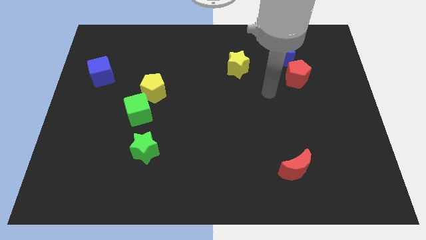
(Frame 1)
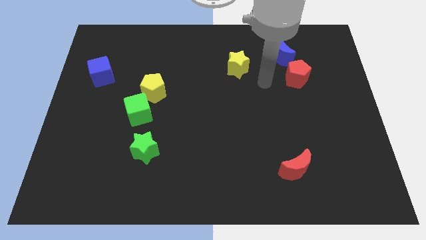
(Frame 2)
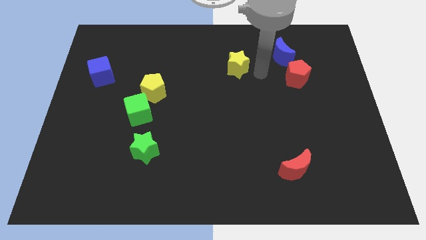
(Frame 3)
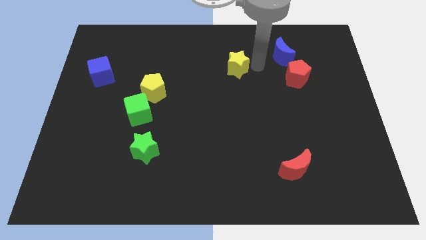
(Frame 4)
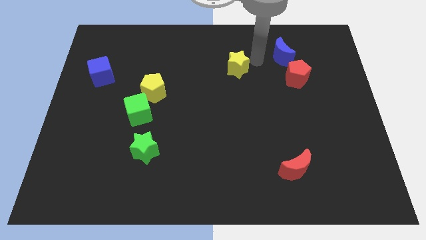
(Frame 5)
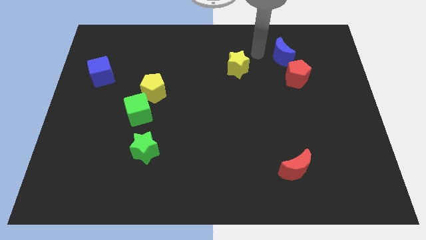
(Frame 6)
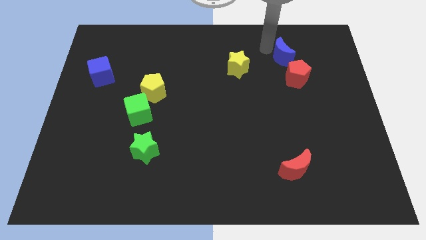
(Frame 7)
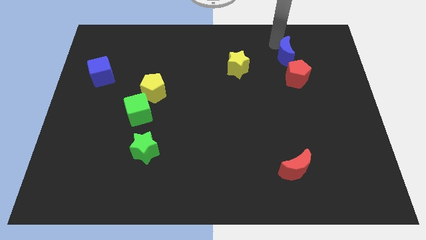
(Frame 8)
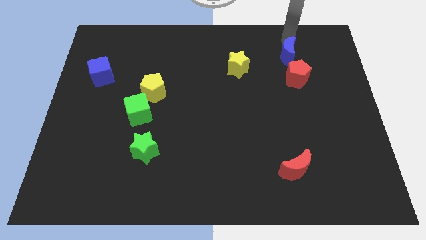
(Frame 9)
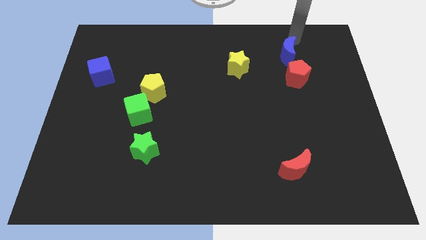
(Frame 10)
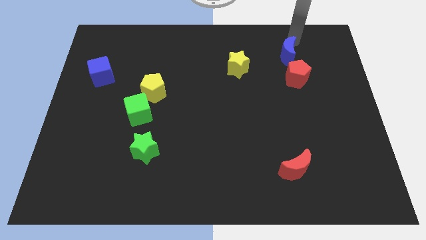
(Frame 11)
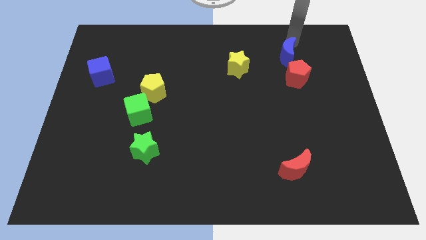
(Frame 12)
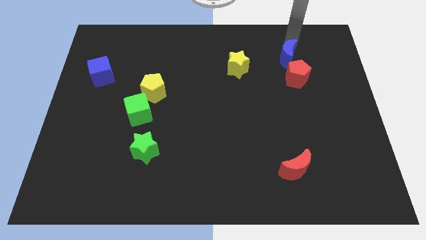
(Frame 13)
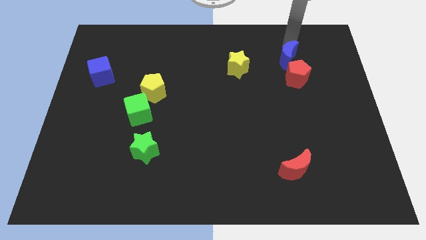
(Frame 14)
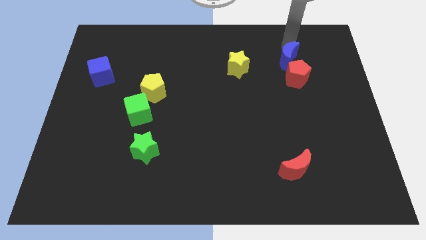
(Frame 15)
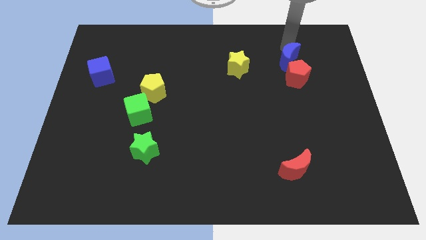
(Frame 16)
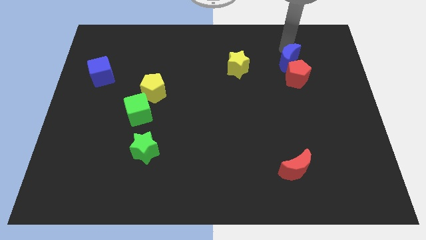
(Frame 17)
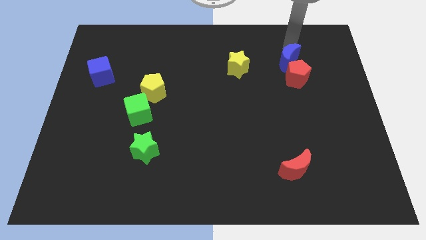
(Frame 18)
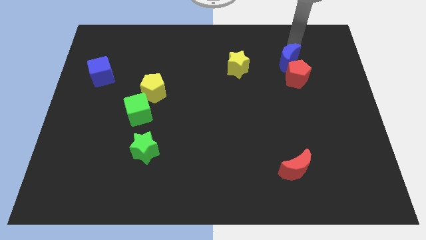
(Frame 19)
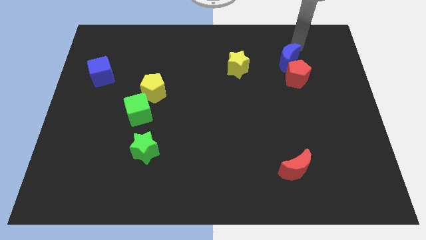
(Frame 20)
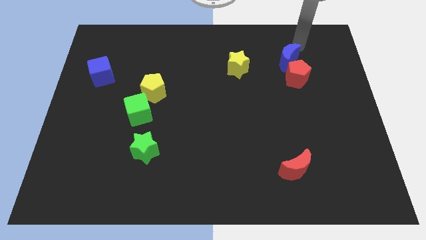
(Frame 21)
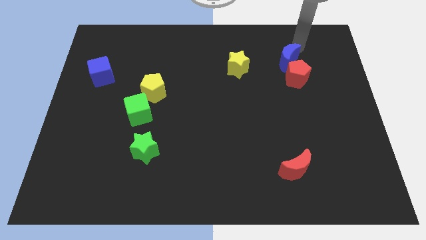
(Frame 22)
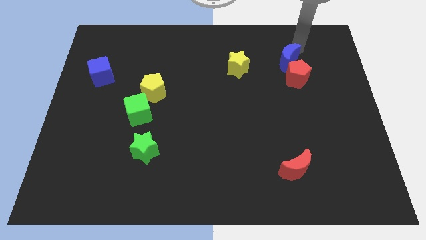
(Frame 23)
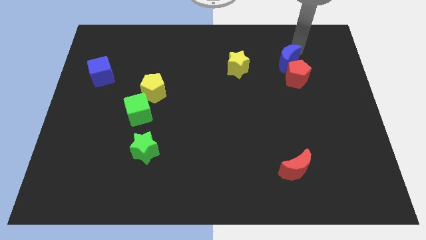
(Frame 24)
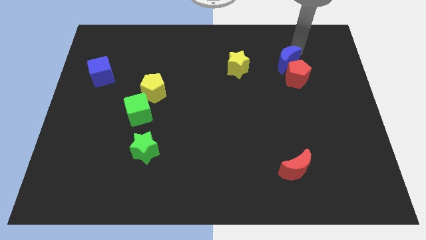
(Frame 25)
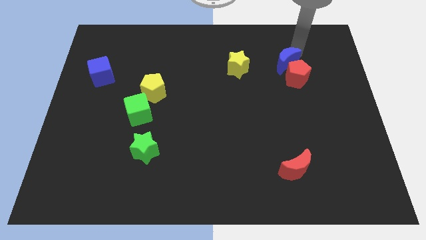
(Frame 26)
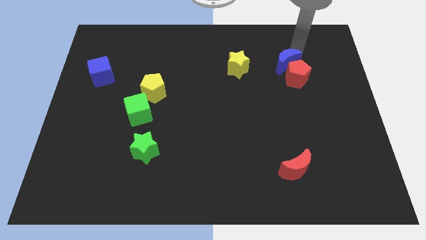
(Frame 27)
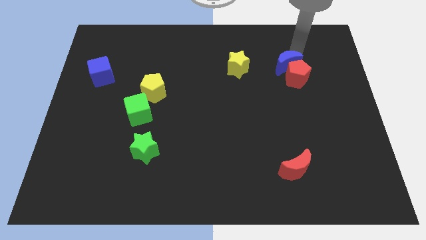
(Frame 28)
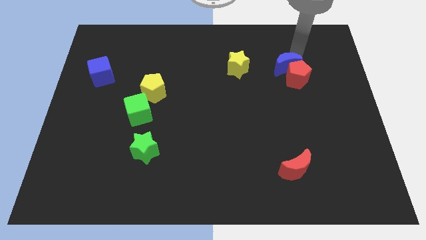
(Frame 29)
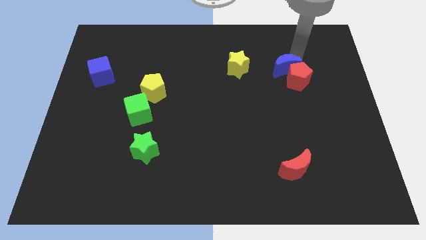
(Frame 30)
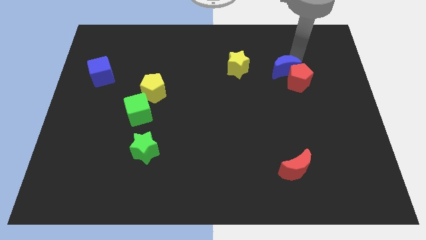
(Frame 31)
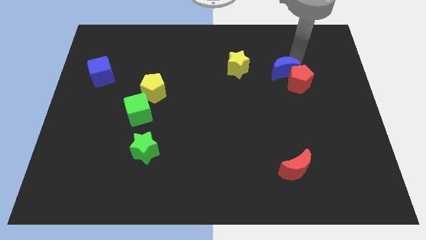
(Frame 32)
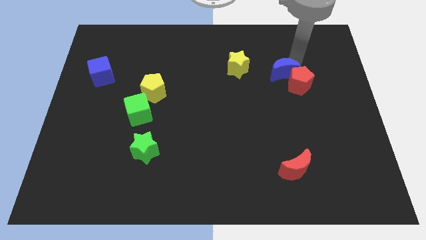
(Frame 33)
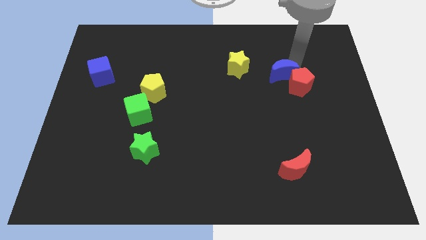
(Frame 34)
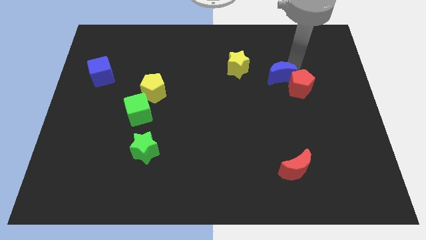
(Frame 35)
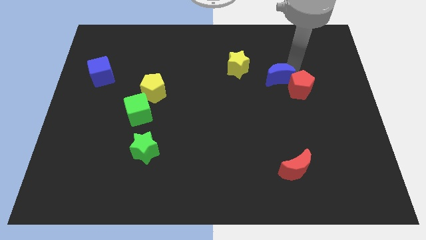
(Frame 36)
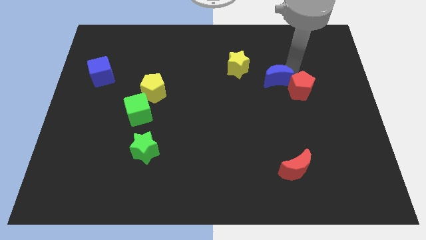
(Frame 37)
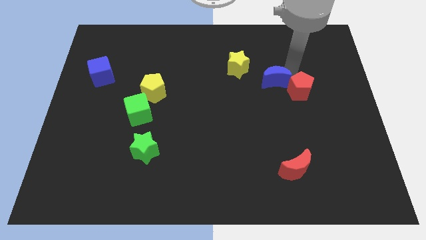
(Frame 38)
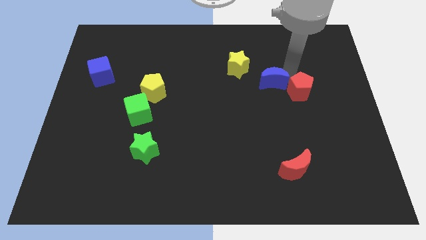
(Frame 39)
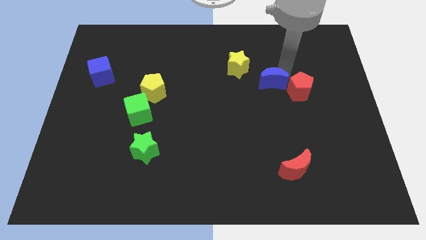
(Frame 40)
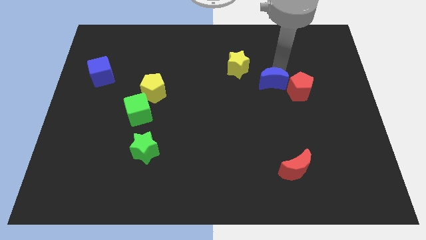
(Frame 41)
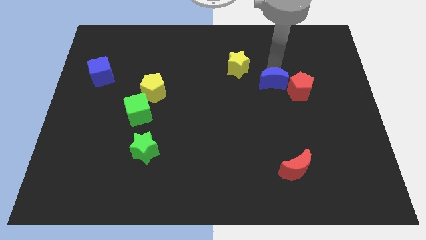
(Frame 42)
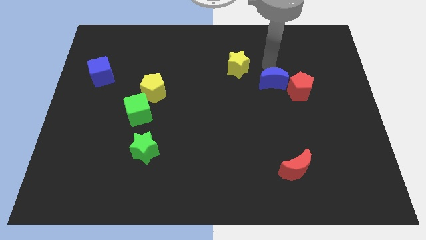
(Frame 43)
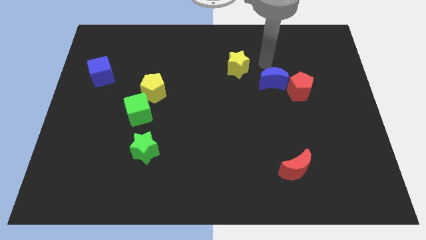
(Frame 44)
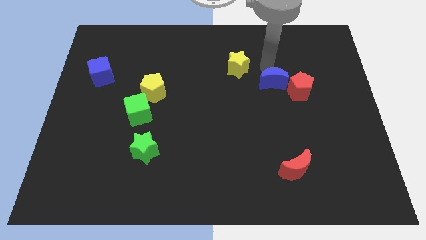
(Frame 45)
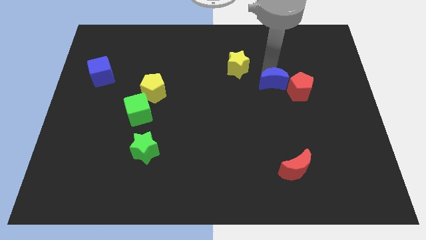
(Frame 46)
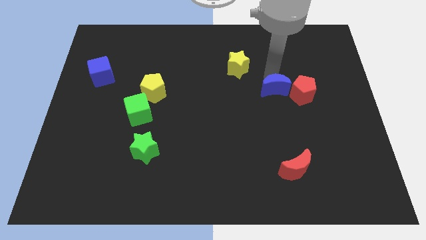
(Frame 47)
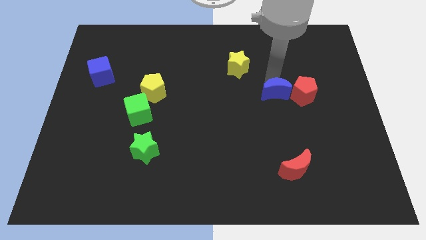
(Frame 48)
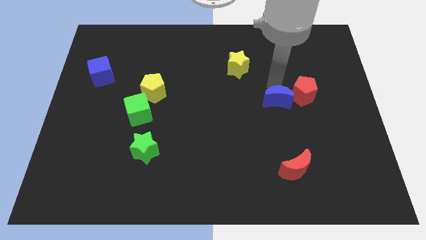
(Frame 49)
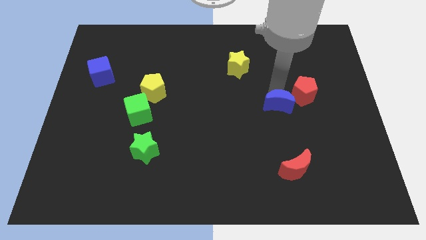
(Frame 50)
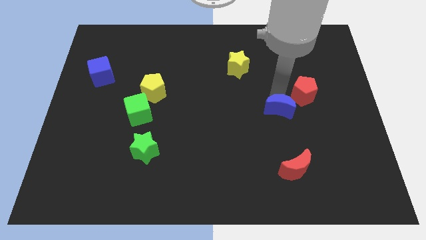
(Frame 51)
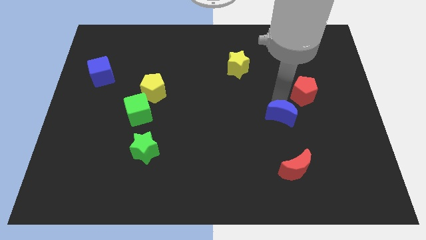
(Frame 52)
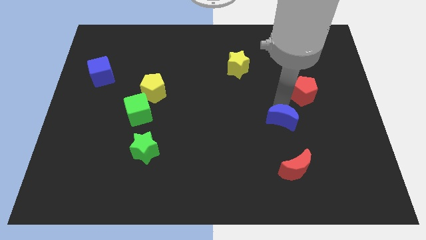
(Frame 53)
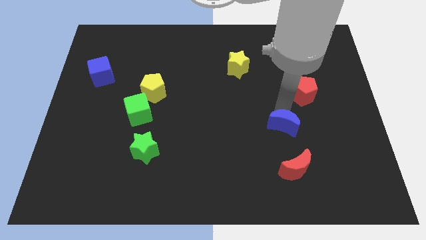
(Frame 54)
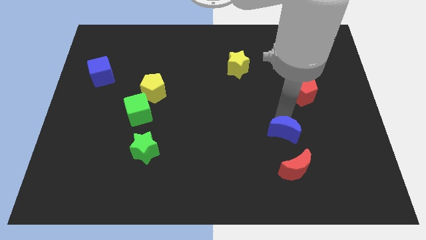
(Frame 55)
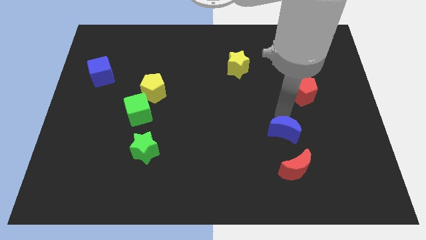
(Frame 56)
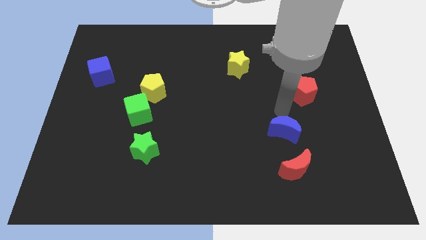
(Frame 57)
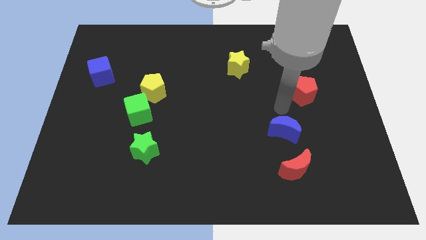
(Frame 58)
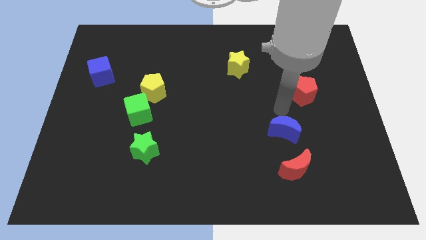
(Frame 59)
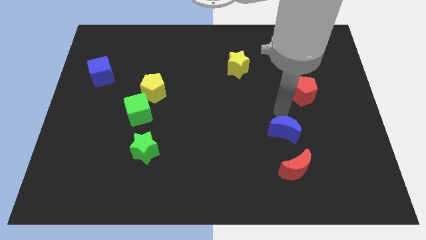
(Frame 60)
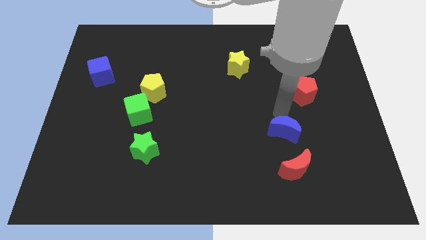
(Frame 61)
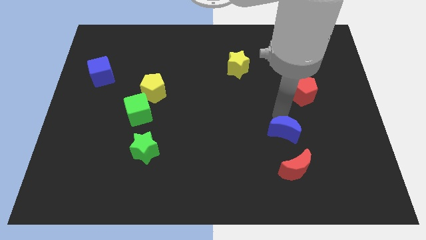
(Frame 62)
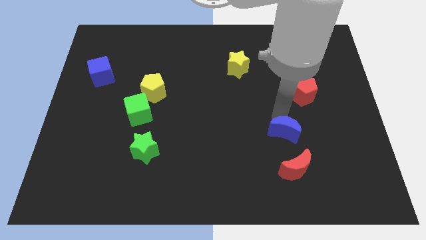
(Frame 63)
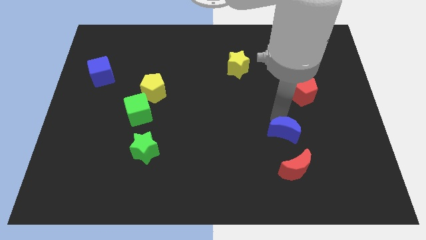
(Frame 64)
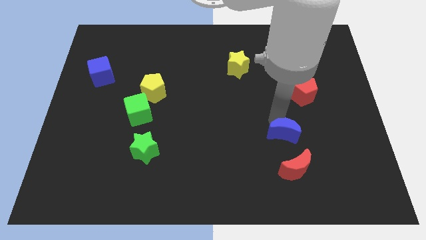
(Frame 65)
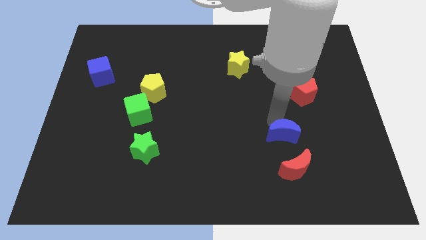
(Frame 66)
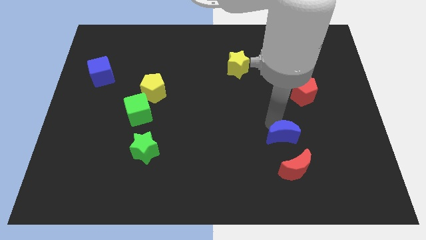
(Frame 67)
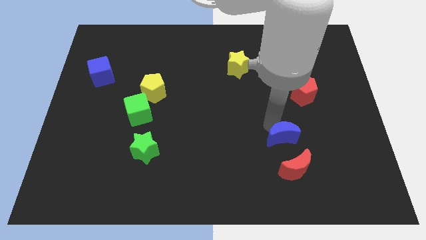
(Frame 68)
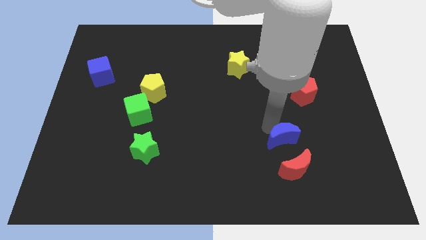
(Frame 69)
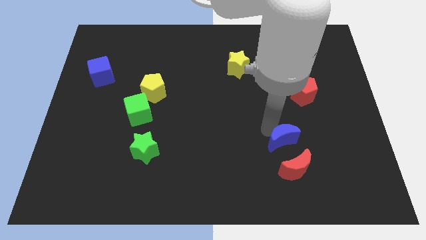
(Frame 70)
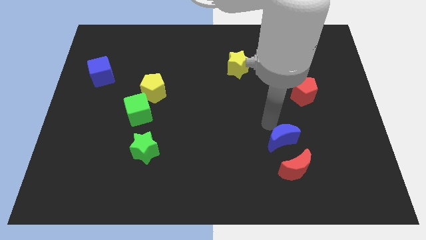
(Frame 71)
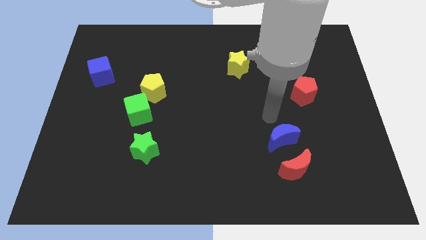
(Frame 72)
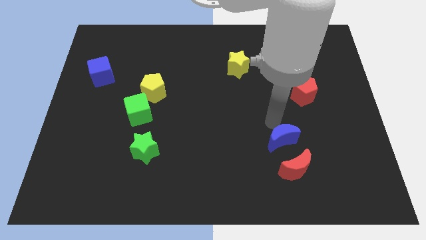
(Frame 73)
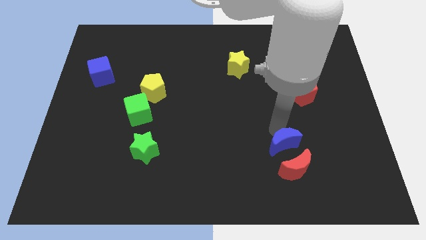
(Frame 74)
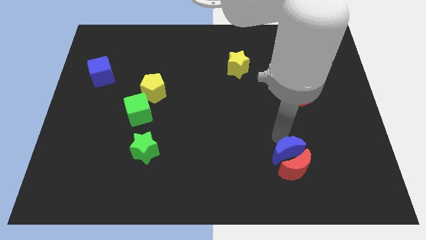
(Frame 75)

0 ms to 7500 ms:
push the blue moon towards the red moon

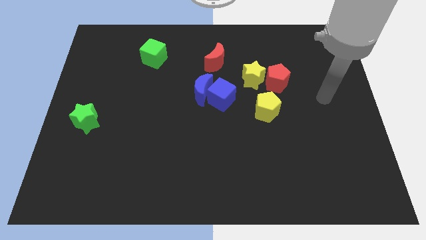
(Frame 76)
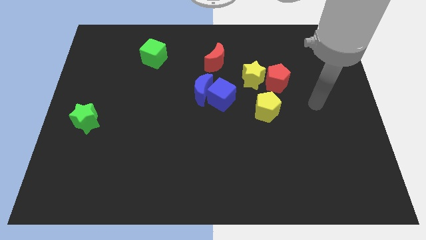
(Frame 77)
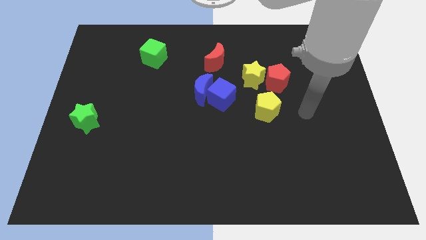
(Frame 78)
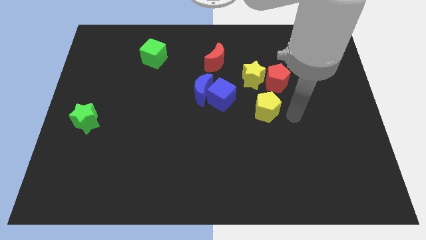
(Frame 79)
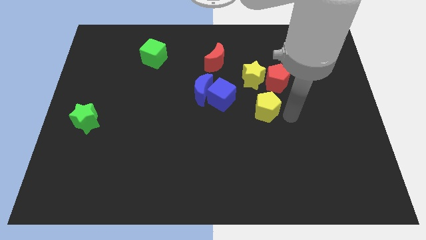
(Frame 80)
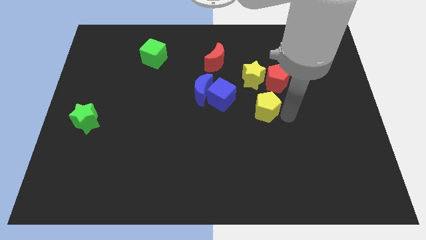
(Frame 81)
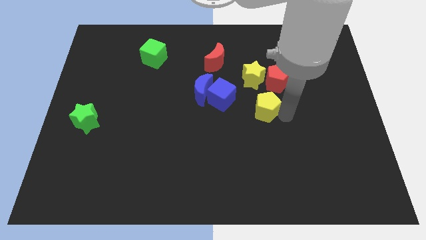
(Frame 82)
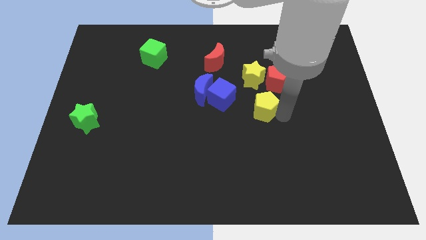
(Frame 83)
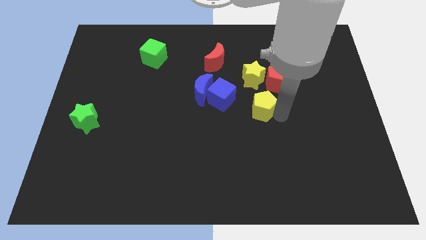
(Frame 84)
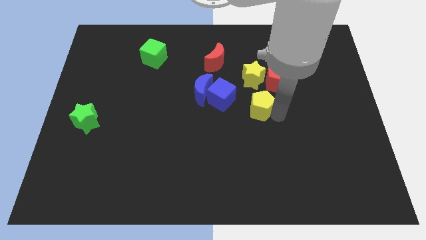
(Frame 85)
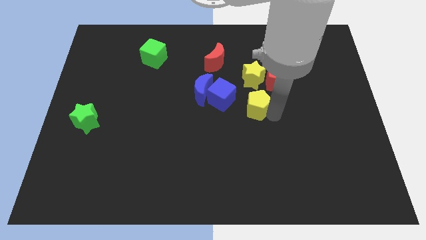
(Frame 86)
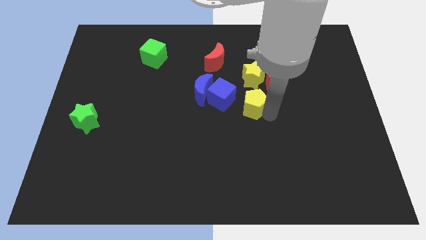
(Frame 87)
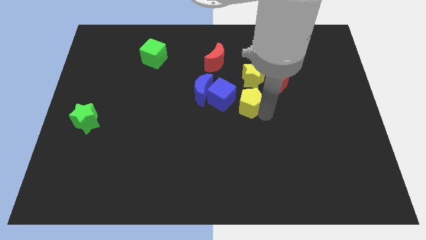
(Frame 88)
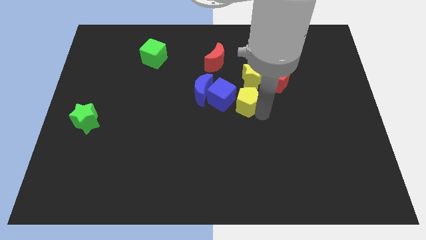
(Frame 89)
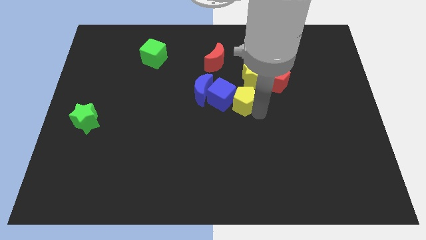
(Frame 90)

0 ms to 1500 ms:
move the yellow pentagon to the blue cube
